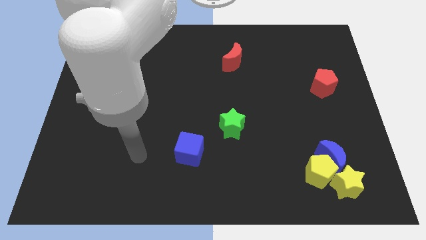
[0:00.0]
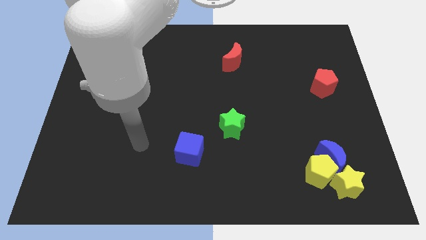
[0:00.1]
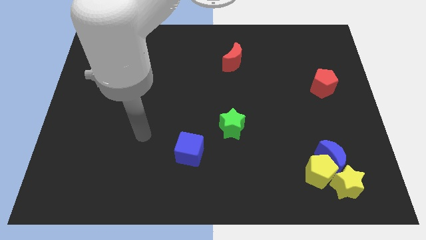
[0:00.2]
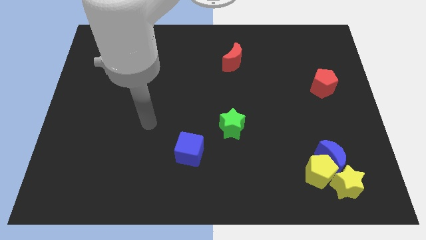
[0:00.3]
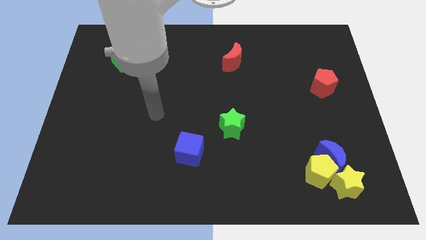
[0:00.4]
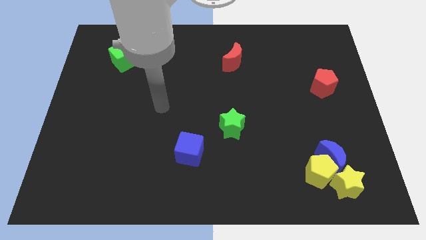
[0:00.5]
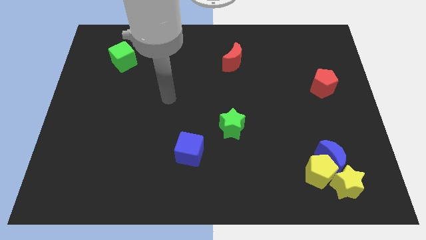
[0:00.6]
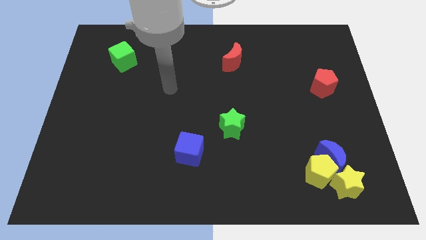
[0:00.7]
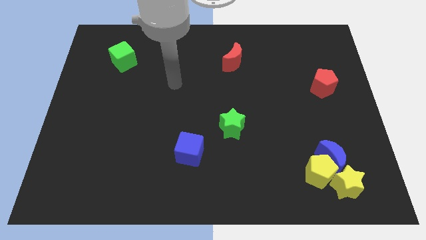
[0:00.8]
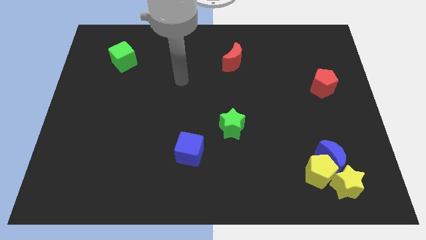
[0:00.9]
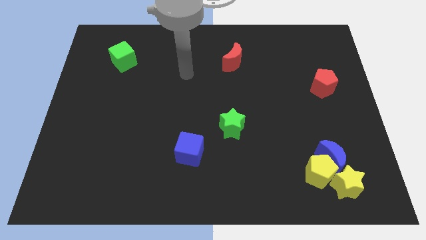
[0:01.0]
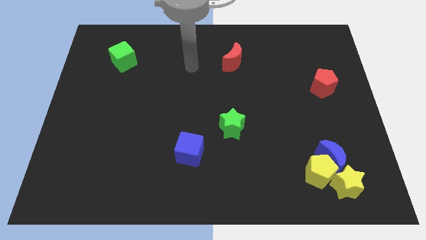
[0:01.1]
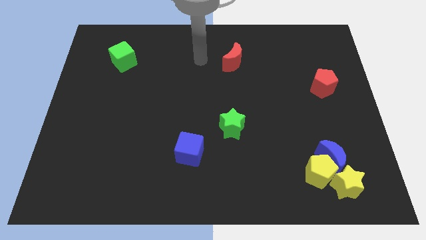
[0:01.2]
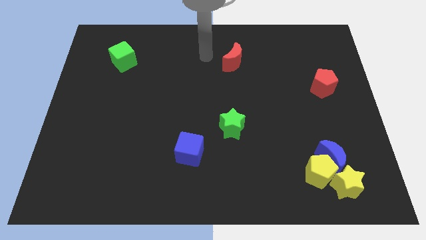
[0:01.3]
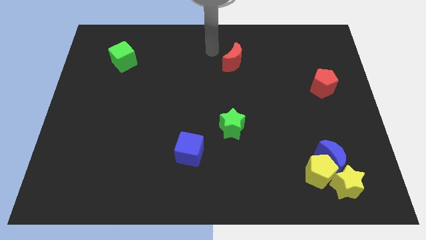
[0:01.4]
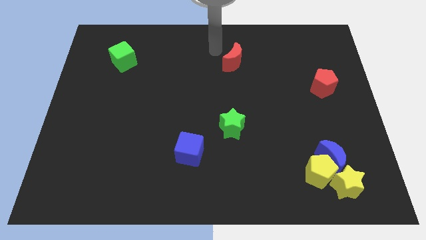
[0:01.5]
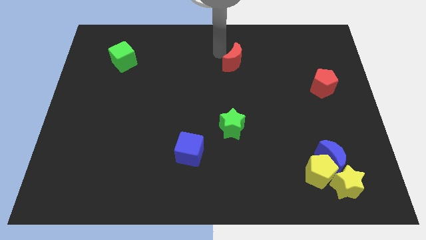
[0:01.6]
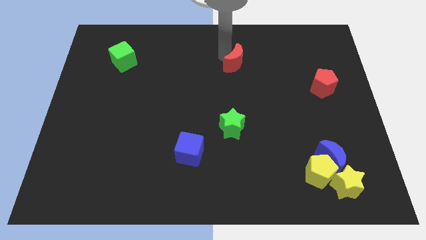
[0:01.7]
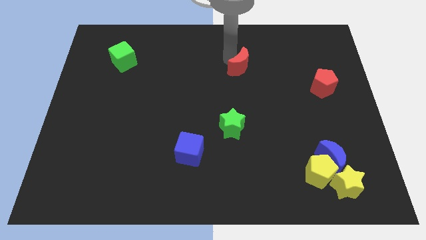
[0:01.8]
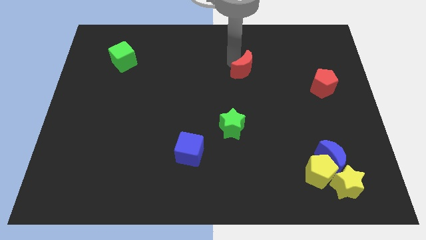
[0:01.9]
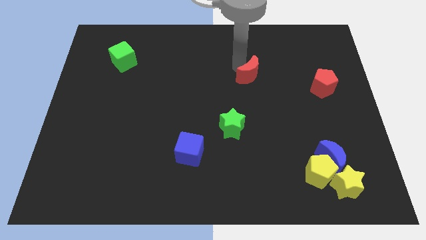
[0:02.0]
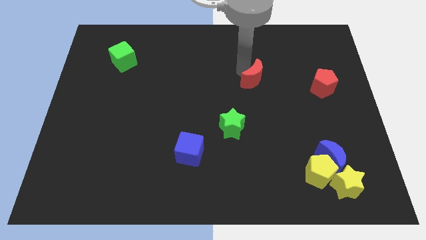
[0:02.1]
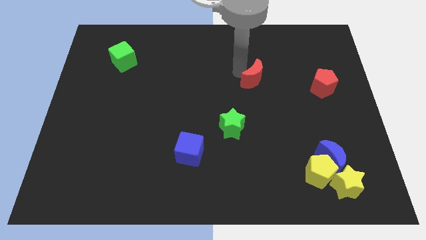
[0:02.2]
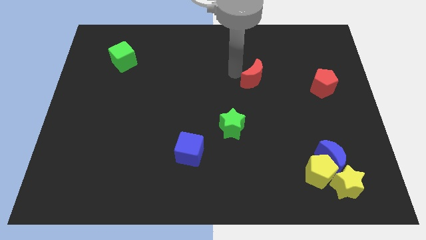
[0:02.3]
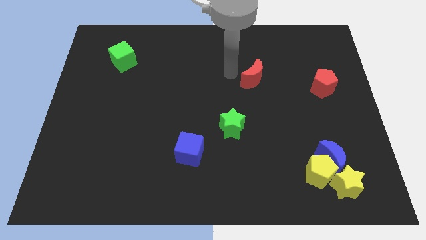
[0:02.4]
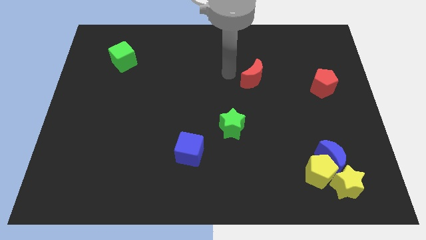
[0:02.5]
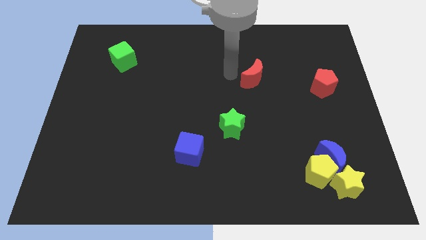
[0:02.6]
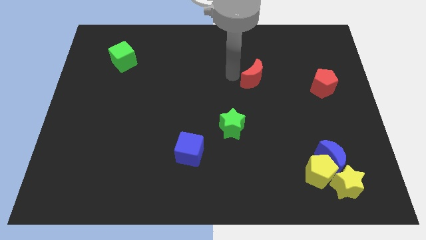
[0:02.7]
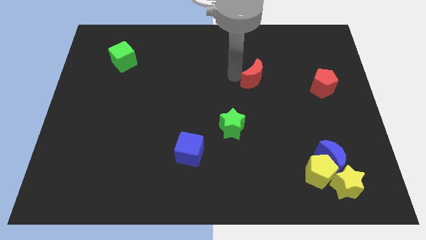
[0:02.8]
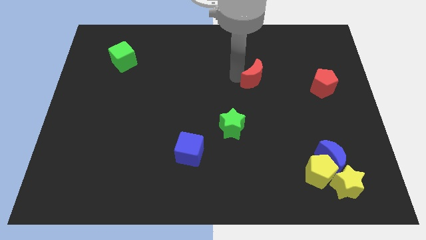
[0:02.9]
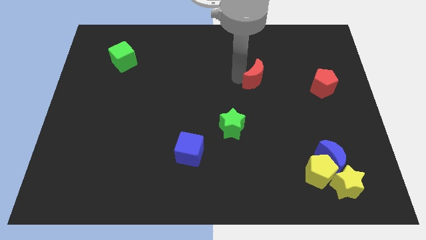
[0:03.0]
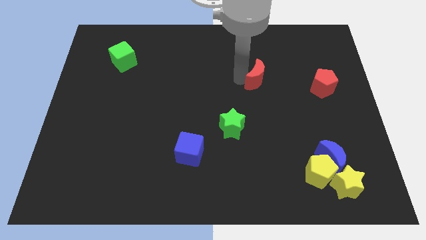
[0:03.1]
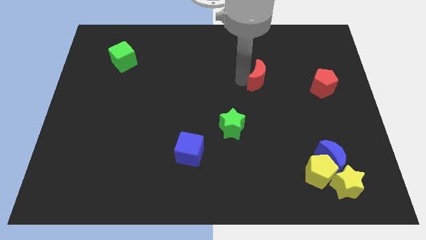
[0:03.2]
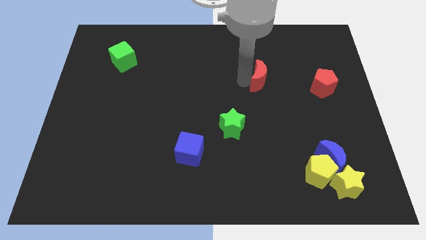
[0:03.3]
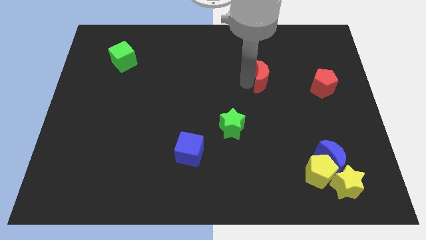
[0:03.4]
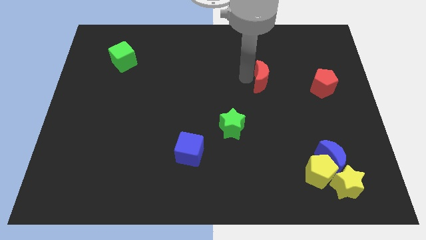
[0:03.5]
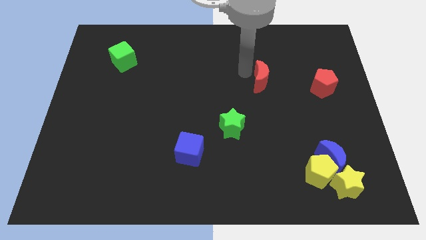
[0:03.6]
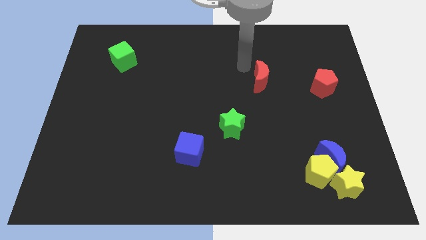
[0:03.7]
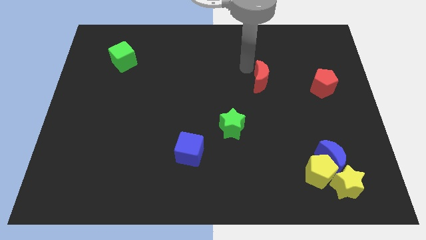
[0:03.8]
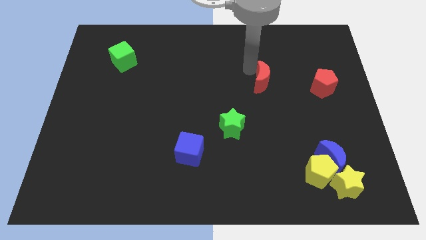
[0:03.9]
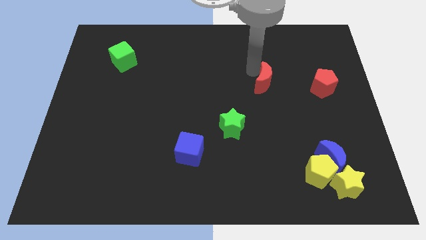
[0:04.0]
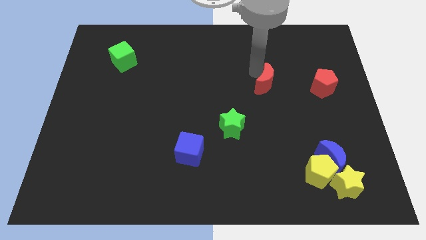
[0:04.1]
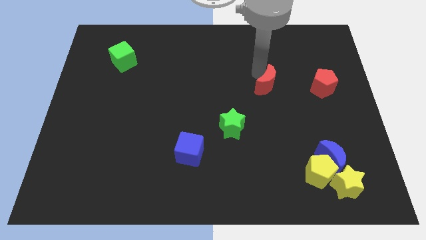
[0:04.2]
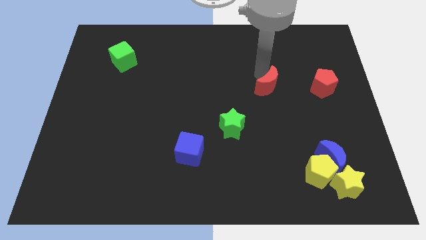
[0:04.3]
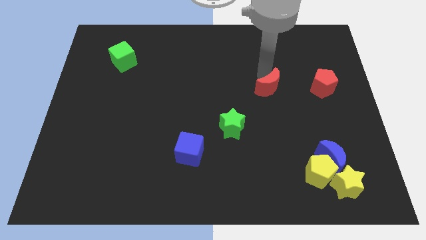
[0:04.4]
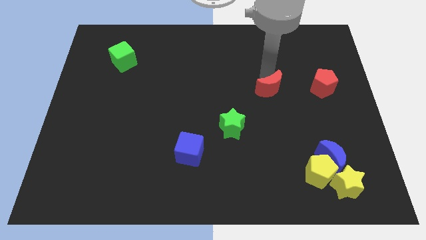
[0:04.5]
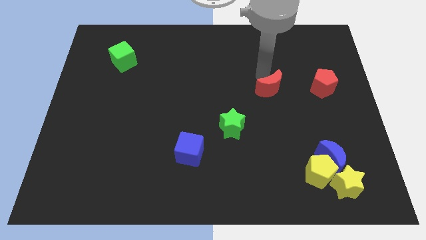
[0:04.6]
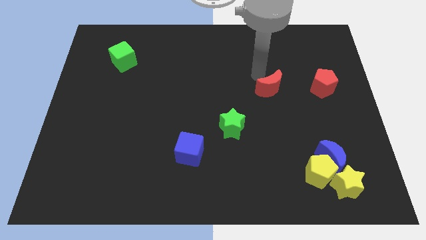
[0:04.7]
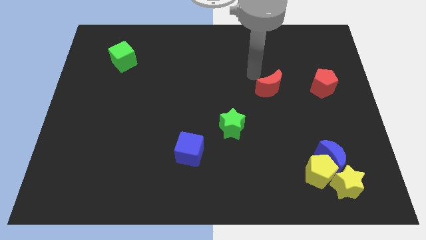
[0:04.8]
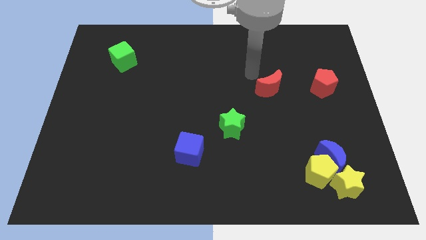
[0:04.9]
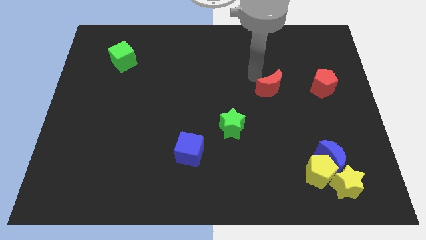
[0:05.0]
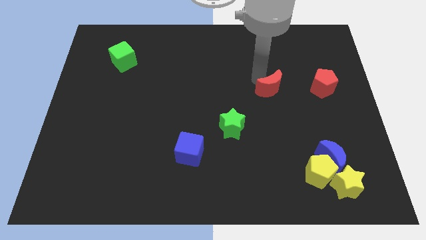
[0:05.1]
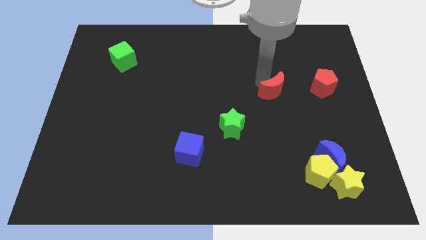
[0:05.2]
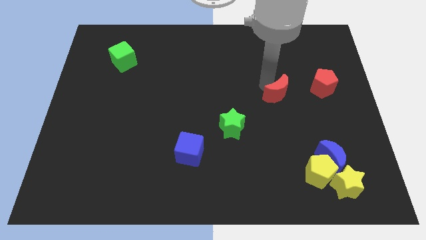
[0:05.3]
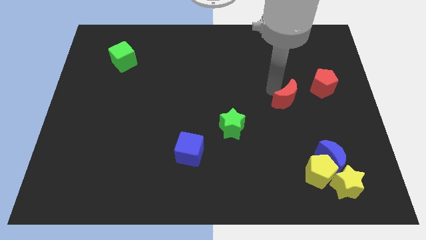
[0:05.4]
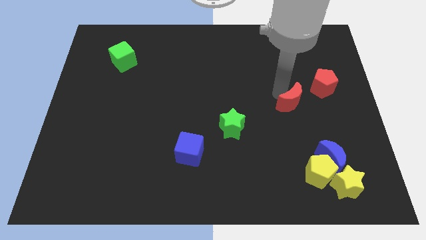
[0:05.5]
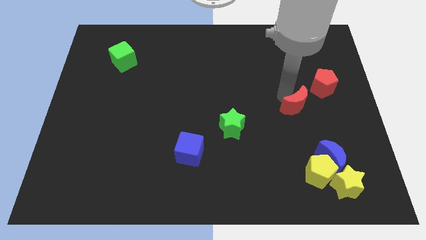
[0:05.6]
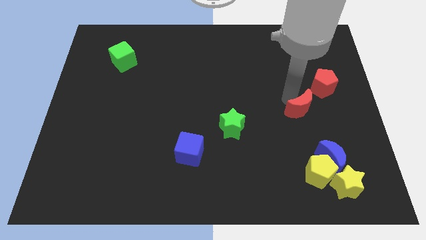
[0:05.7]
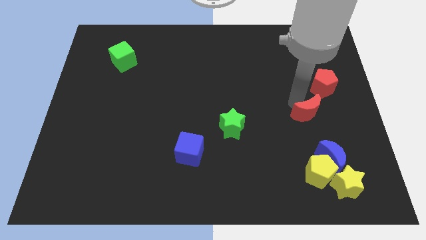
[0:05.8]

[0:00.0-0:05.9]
put the red moon above the yellow pentagon

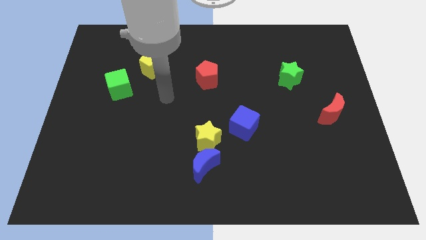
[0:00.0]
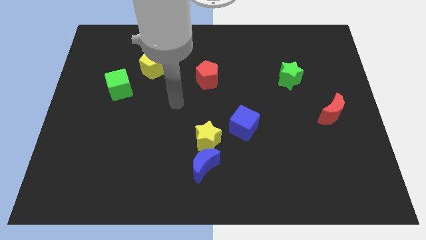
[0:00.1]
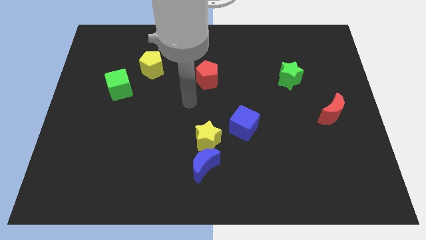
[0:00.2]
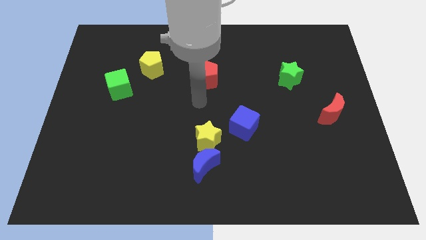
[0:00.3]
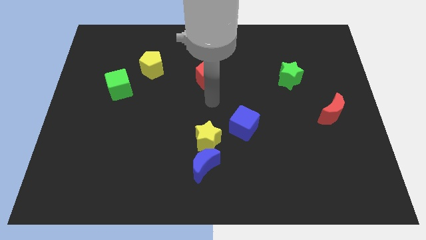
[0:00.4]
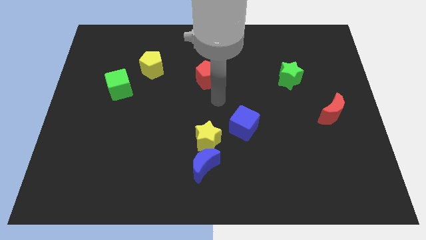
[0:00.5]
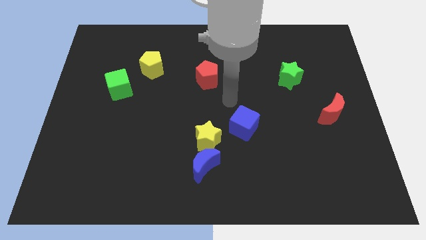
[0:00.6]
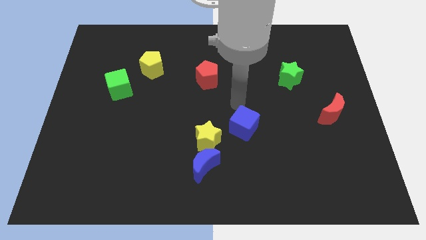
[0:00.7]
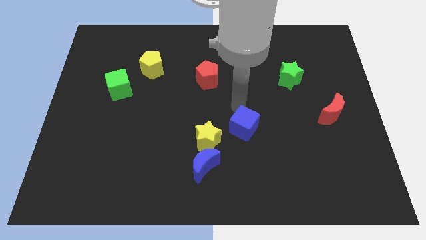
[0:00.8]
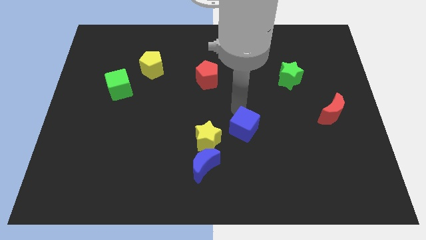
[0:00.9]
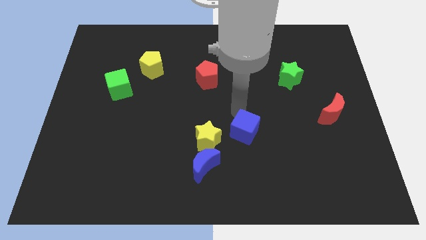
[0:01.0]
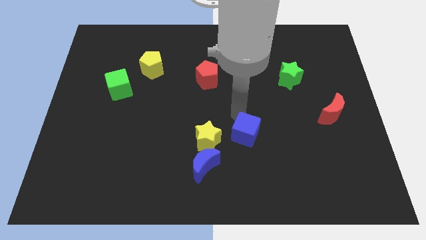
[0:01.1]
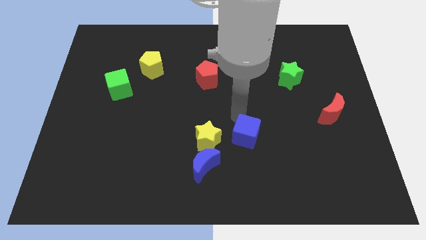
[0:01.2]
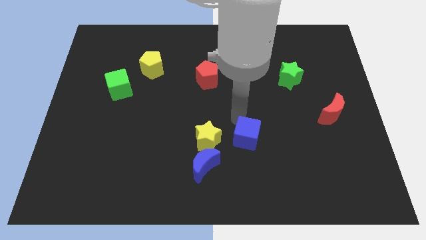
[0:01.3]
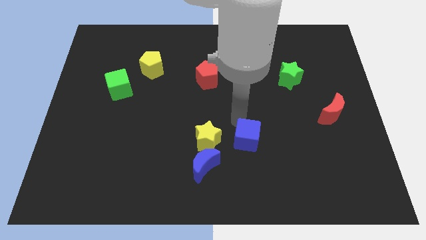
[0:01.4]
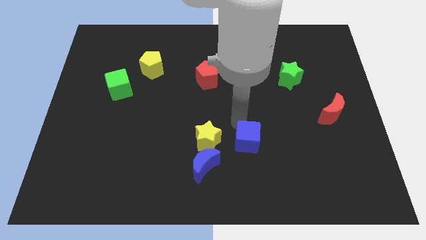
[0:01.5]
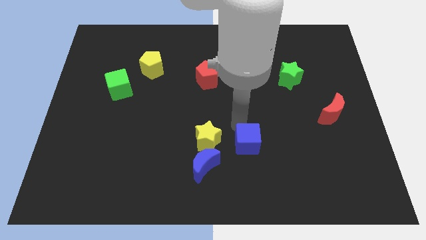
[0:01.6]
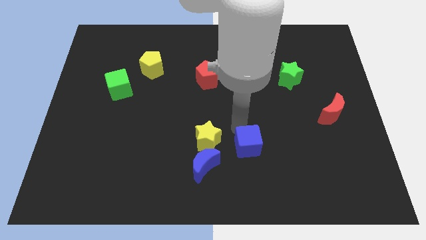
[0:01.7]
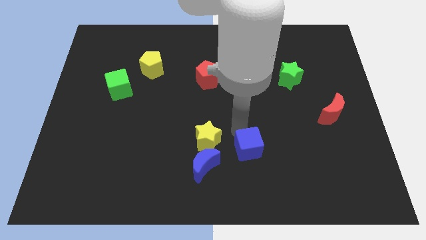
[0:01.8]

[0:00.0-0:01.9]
put the blue cube just right of the blue moon

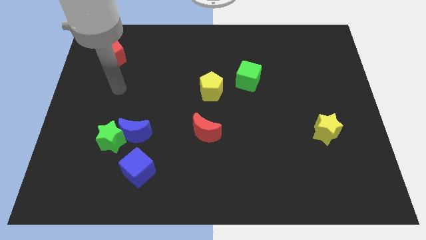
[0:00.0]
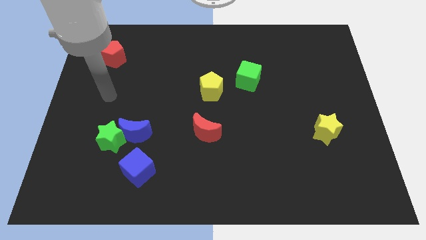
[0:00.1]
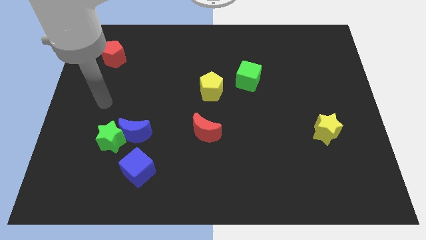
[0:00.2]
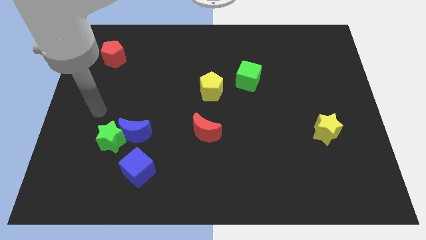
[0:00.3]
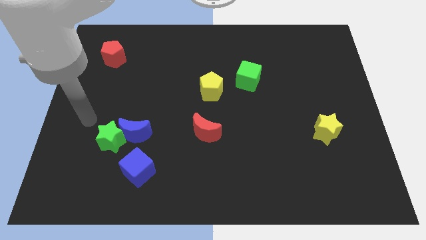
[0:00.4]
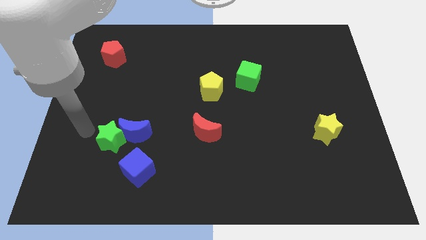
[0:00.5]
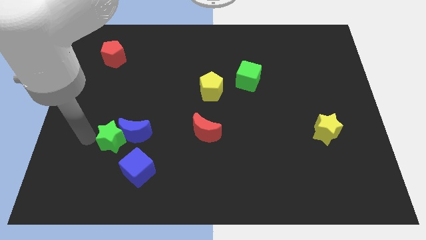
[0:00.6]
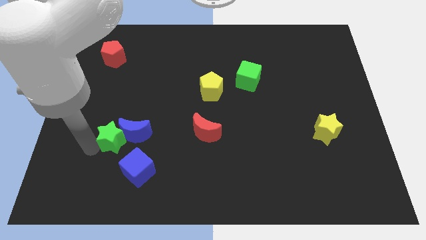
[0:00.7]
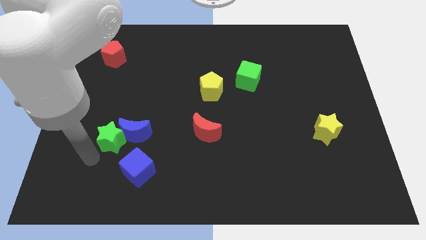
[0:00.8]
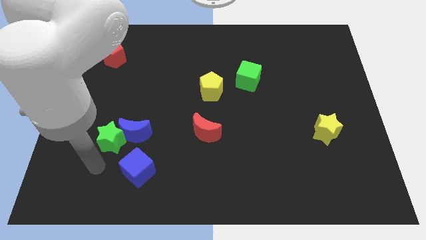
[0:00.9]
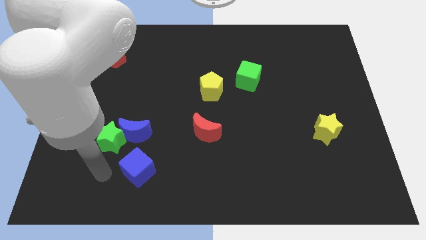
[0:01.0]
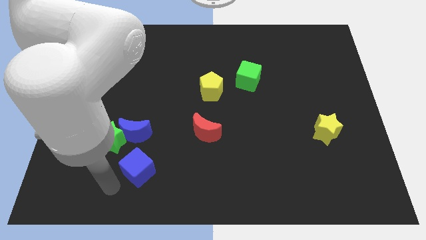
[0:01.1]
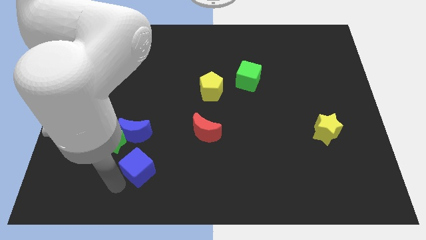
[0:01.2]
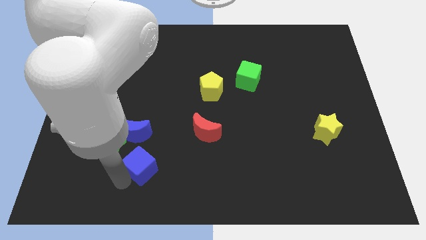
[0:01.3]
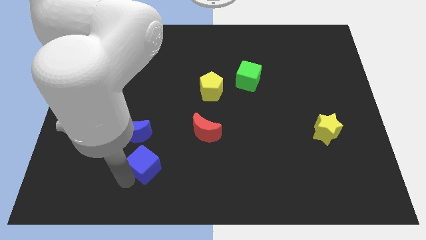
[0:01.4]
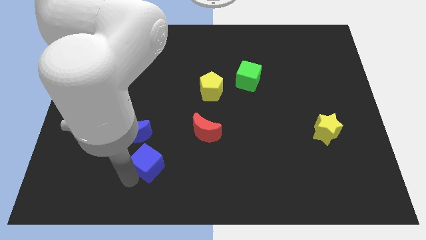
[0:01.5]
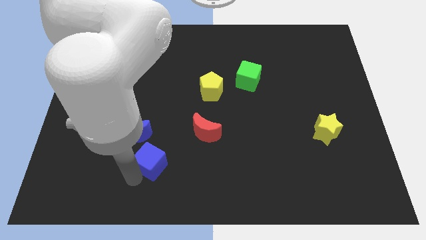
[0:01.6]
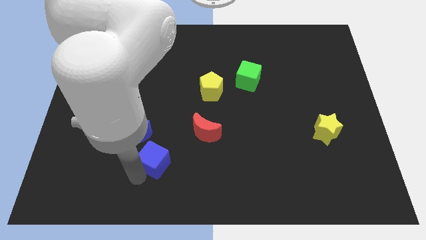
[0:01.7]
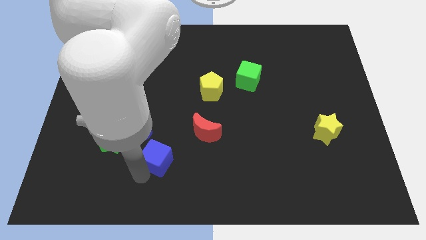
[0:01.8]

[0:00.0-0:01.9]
slide the blue cube right of the green star
